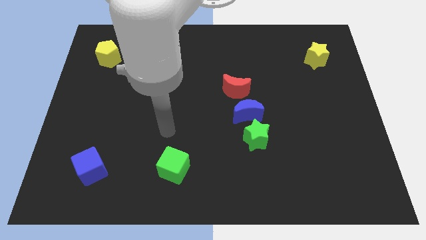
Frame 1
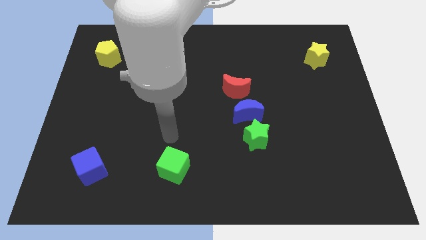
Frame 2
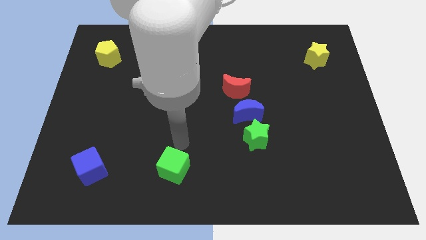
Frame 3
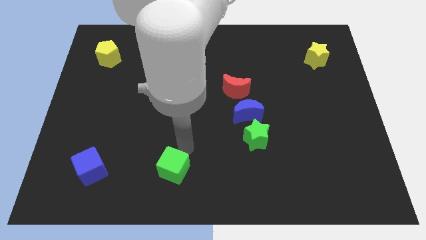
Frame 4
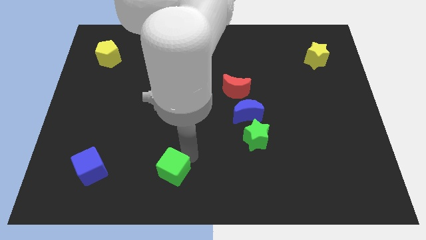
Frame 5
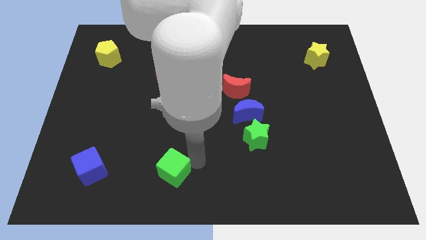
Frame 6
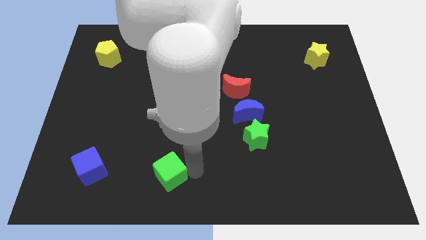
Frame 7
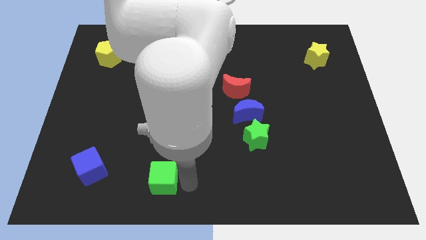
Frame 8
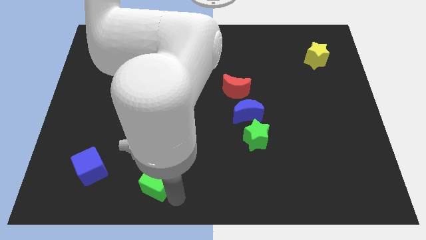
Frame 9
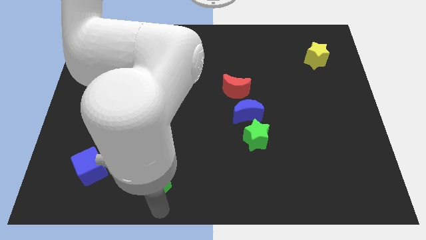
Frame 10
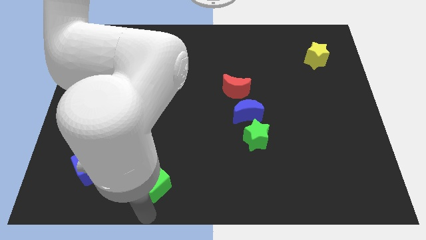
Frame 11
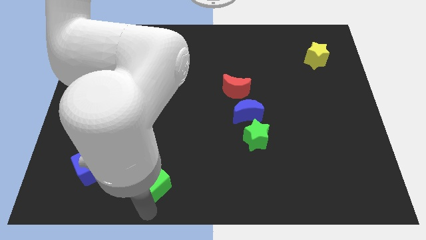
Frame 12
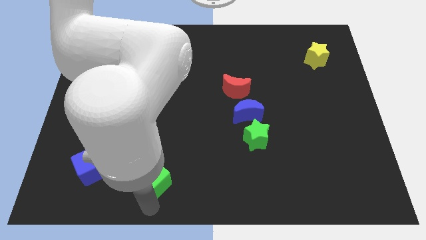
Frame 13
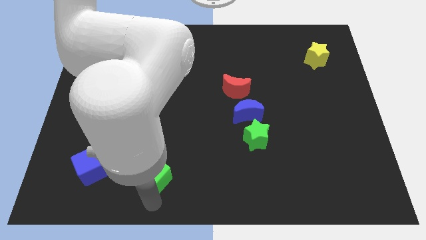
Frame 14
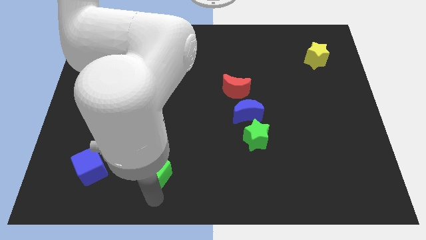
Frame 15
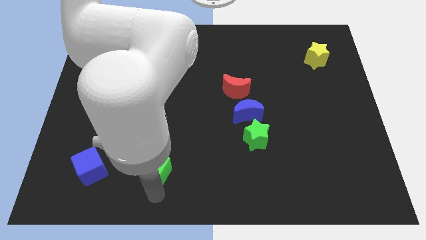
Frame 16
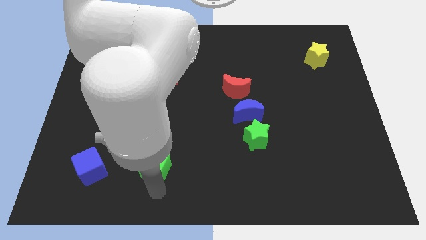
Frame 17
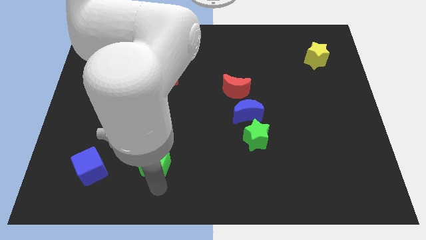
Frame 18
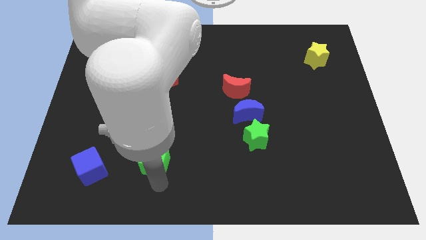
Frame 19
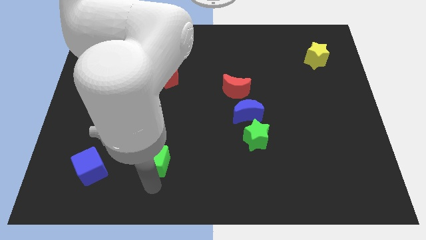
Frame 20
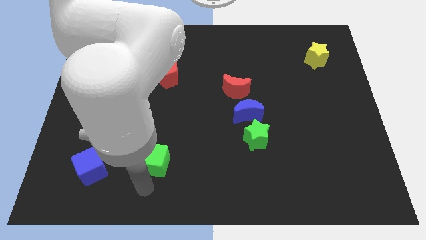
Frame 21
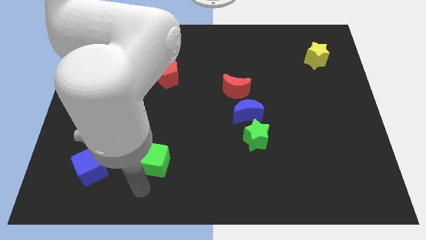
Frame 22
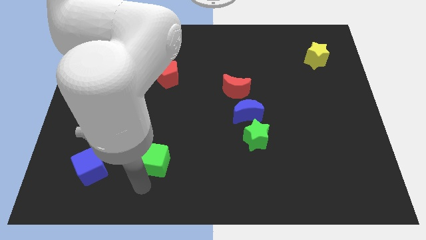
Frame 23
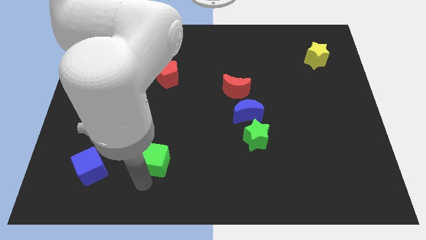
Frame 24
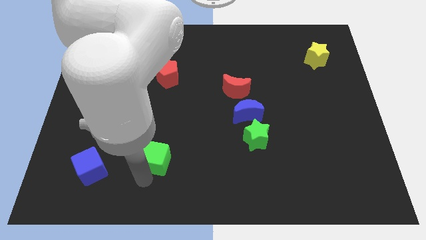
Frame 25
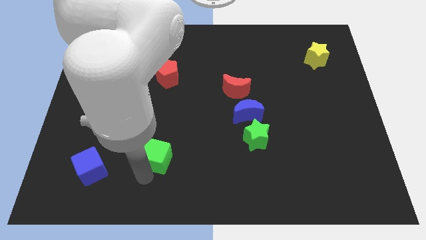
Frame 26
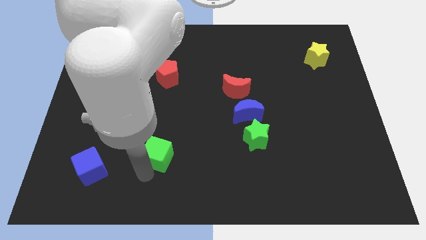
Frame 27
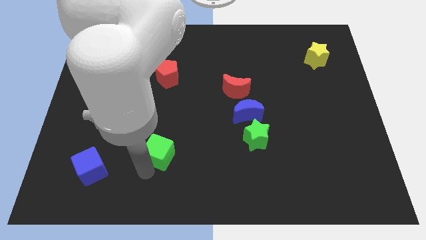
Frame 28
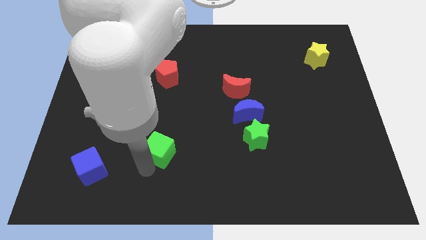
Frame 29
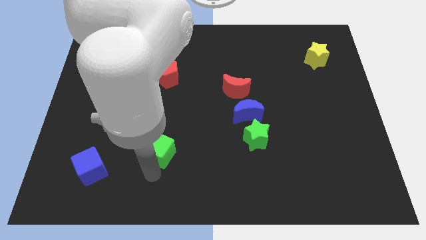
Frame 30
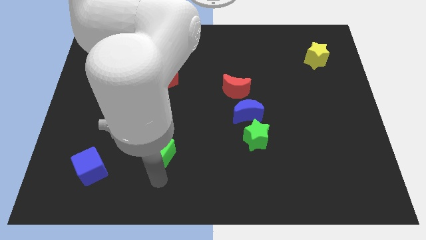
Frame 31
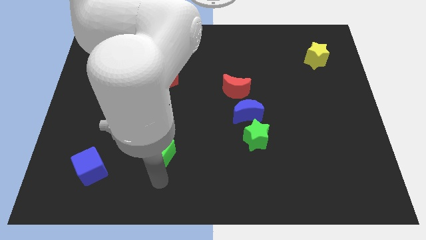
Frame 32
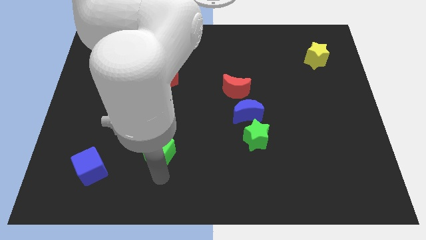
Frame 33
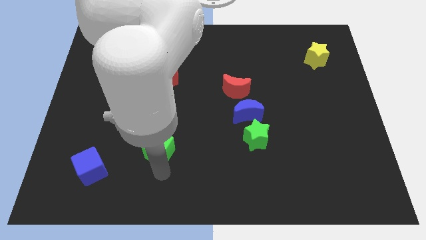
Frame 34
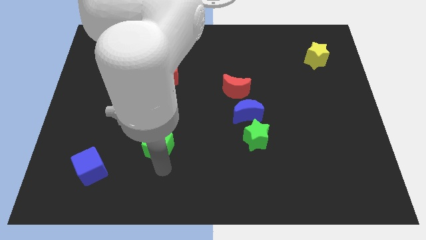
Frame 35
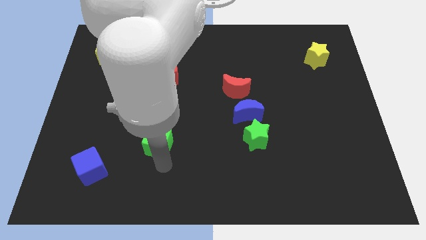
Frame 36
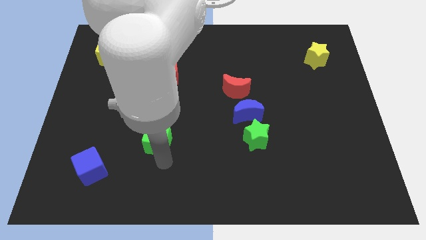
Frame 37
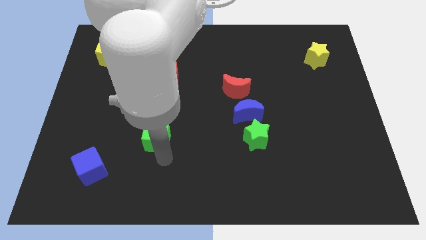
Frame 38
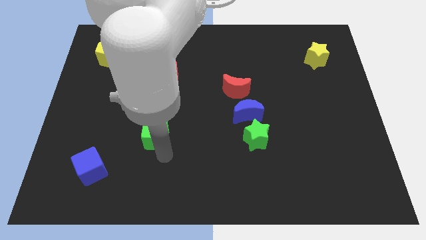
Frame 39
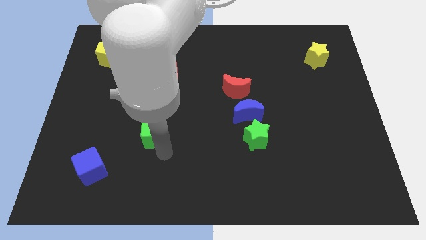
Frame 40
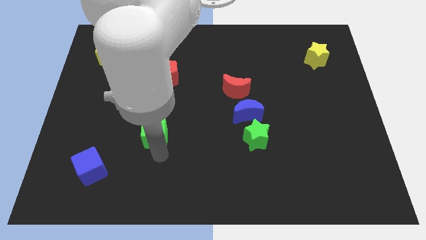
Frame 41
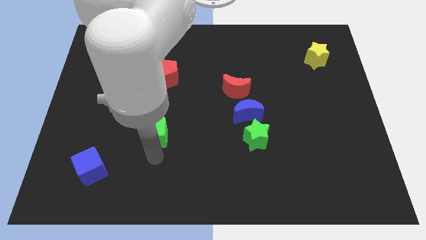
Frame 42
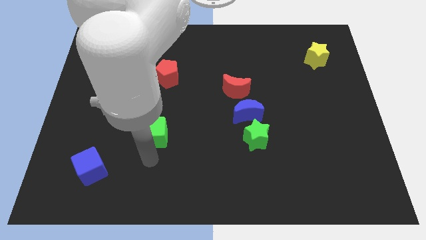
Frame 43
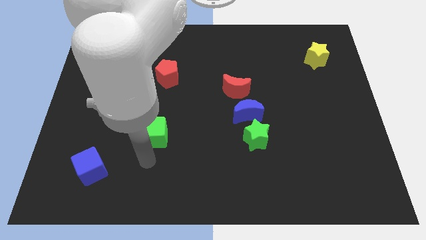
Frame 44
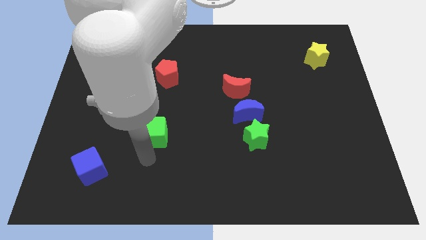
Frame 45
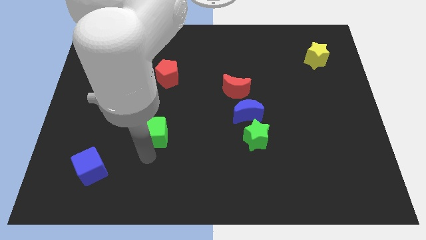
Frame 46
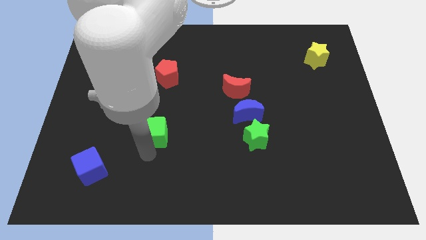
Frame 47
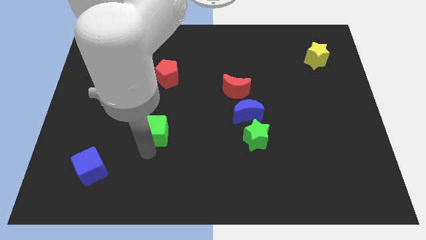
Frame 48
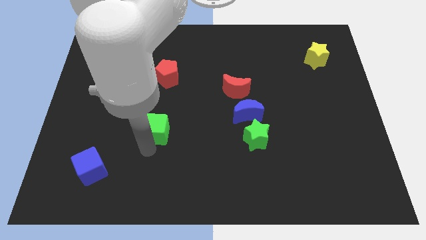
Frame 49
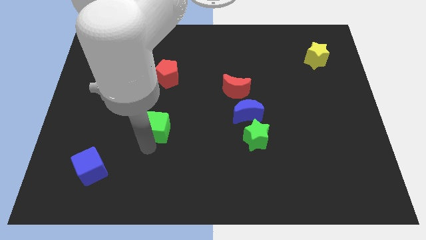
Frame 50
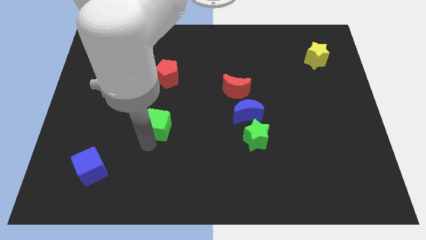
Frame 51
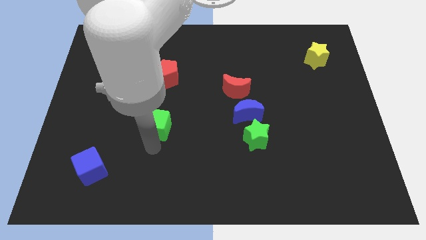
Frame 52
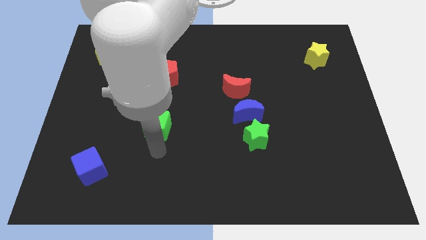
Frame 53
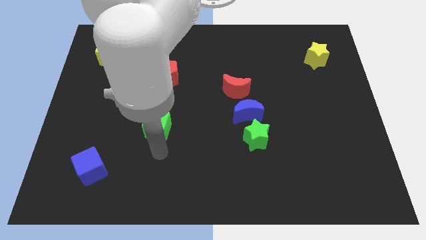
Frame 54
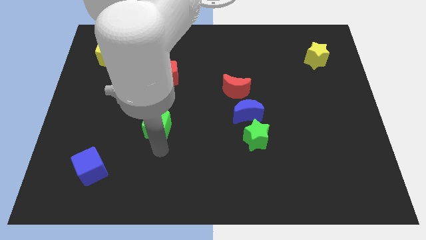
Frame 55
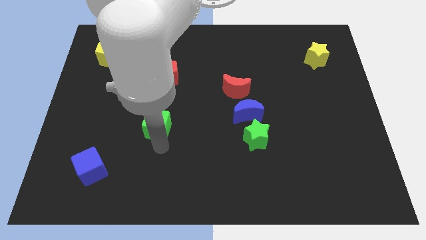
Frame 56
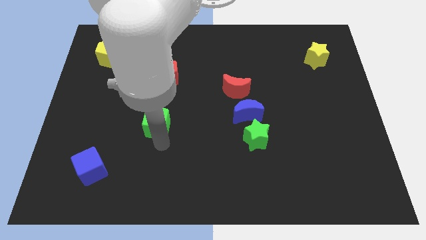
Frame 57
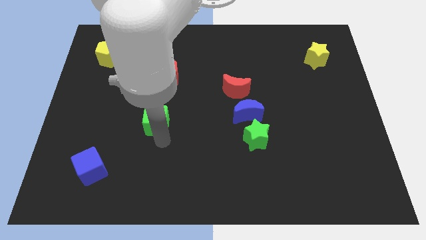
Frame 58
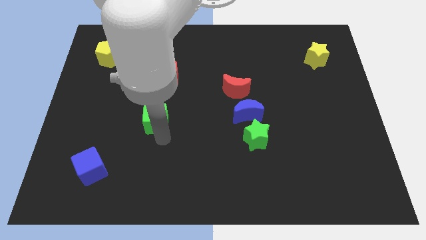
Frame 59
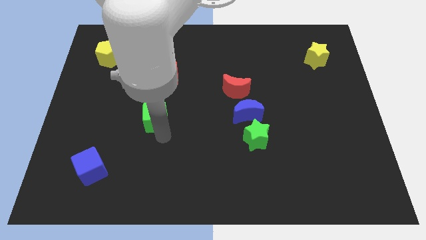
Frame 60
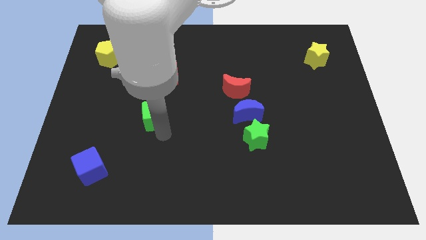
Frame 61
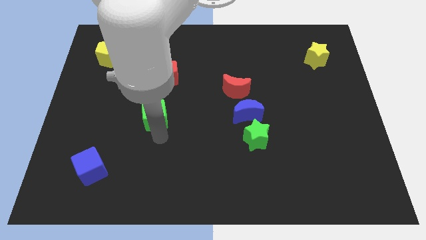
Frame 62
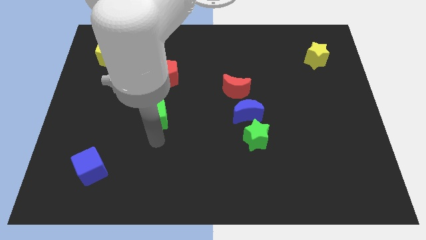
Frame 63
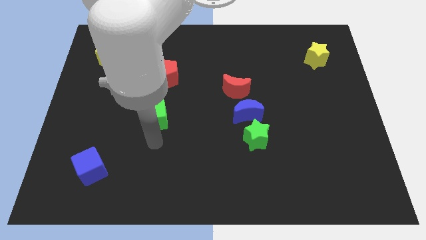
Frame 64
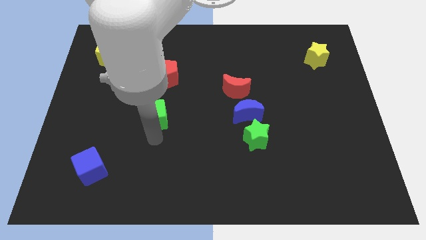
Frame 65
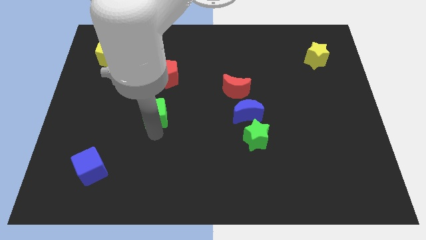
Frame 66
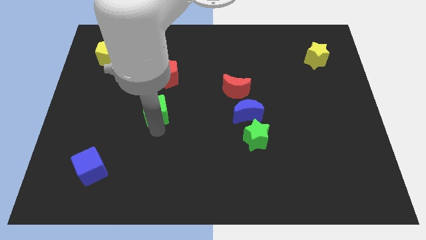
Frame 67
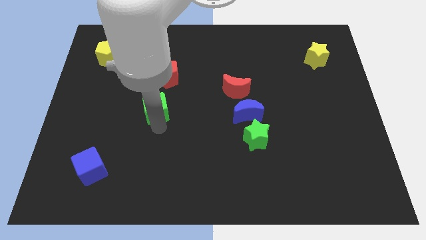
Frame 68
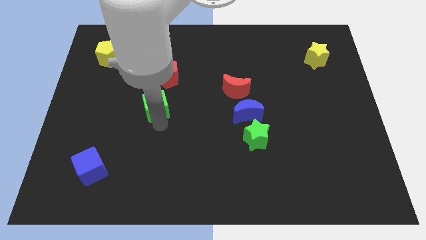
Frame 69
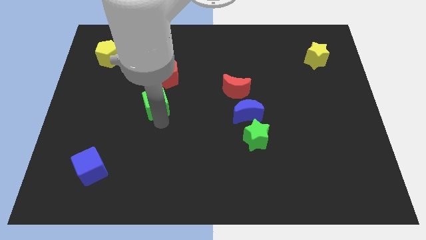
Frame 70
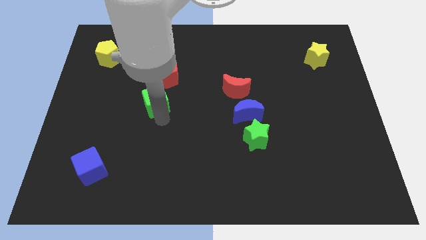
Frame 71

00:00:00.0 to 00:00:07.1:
slide the green cube to the bottom left side of the red pentagon
